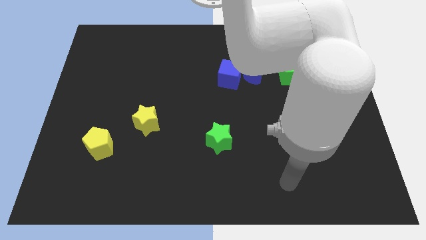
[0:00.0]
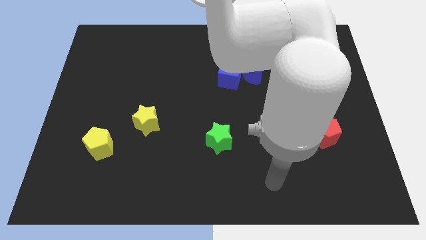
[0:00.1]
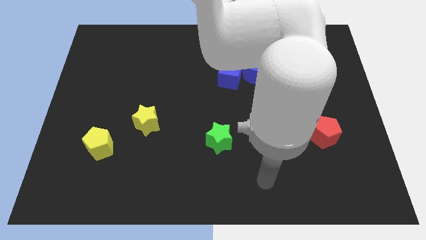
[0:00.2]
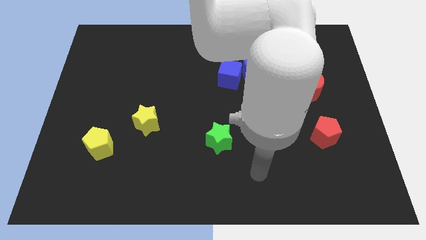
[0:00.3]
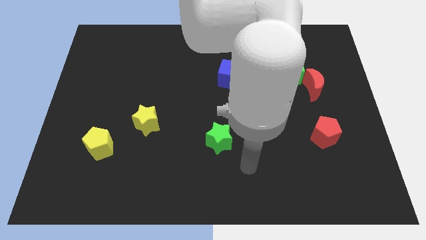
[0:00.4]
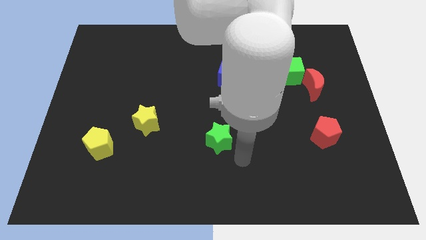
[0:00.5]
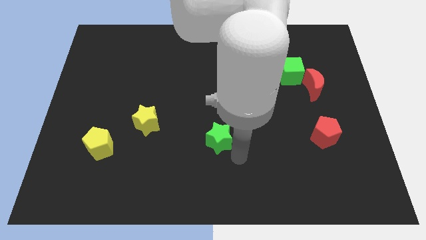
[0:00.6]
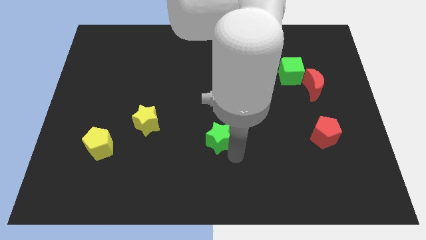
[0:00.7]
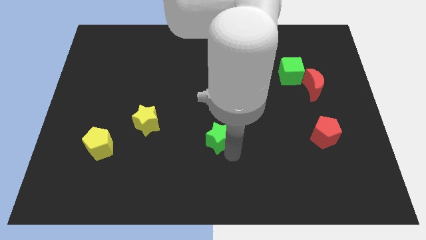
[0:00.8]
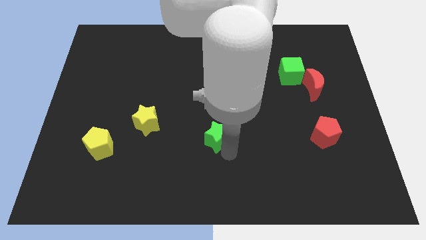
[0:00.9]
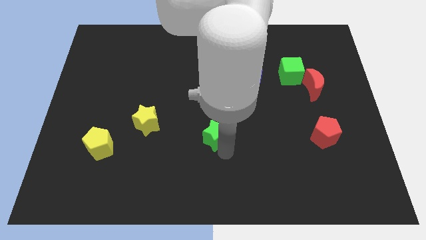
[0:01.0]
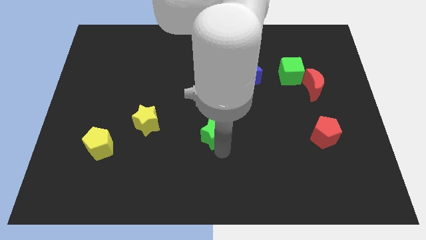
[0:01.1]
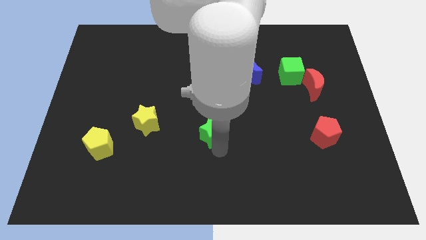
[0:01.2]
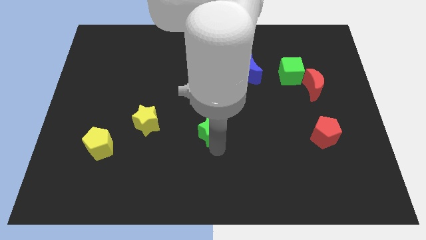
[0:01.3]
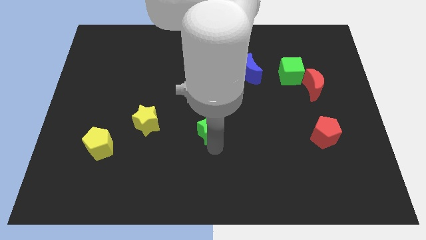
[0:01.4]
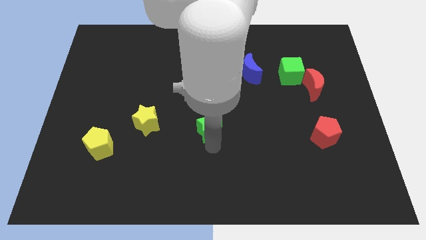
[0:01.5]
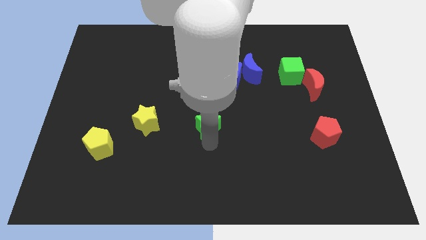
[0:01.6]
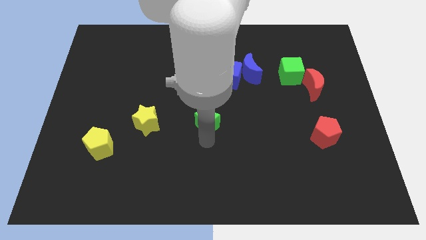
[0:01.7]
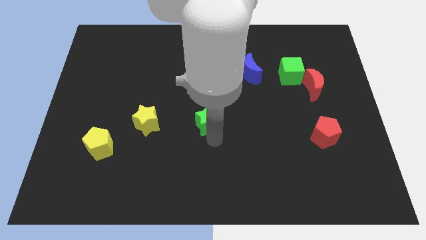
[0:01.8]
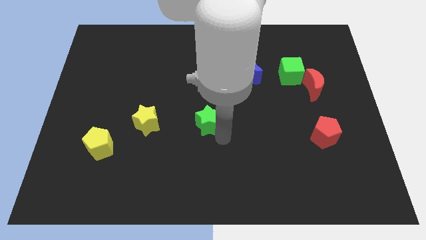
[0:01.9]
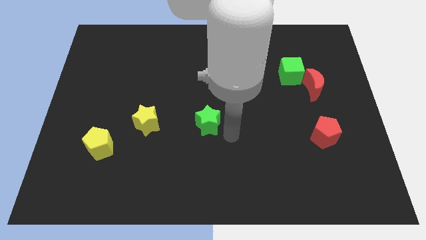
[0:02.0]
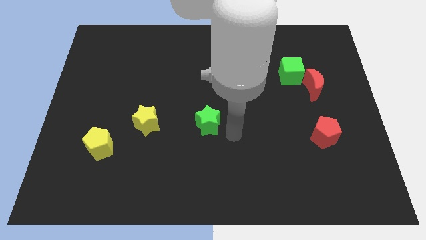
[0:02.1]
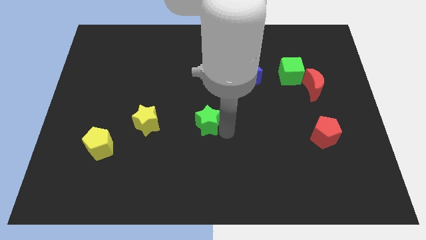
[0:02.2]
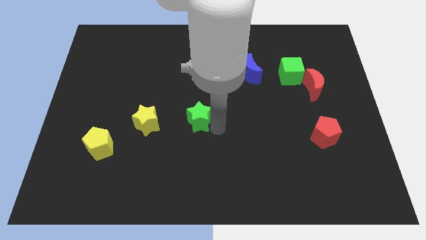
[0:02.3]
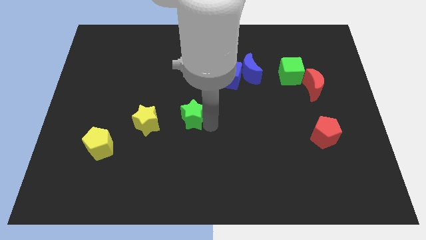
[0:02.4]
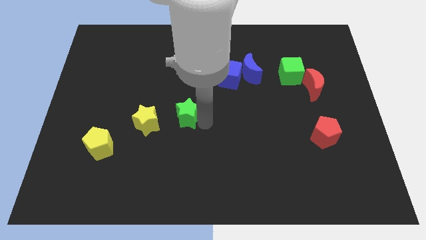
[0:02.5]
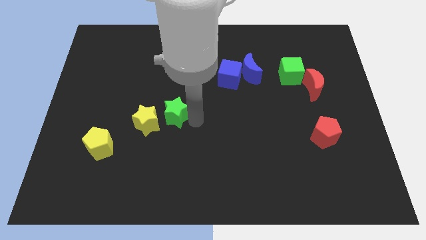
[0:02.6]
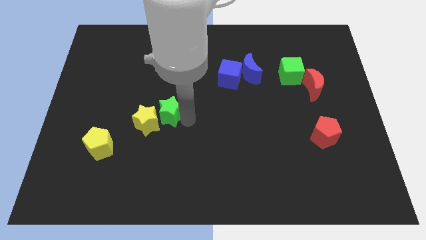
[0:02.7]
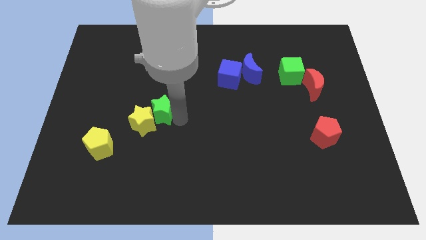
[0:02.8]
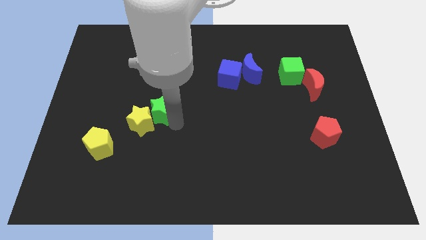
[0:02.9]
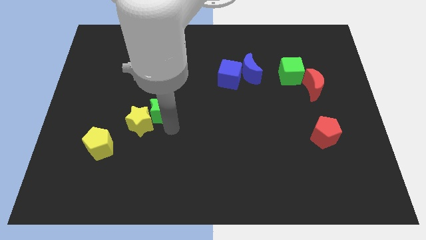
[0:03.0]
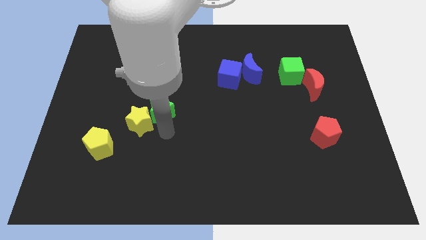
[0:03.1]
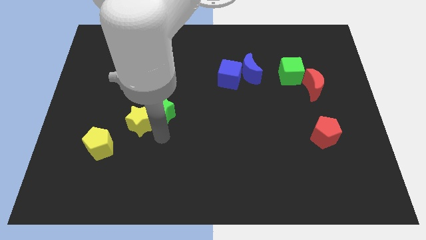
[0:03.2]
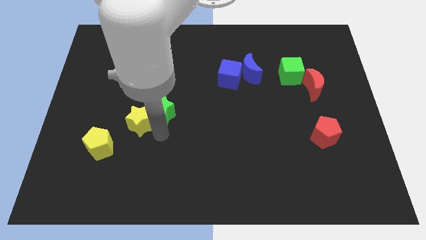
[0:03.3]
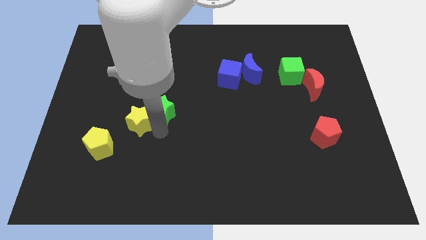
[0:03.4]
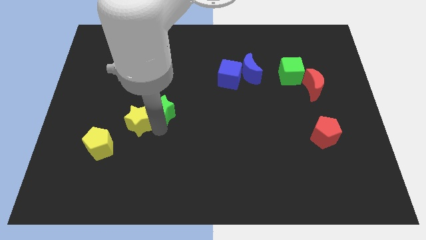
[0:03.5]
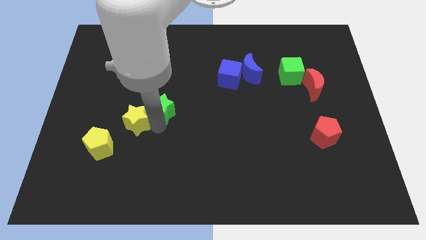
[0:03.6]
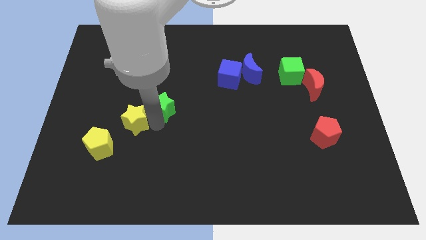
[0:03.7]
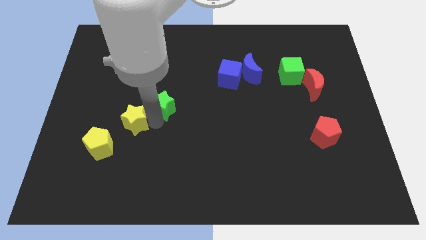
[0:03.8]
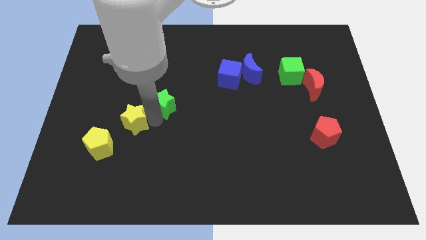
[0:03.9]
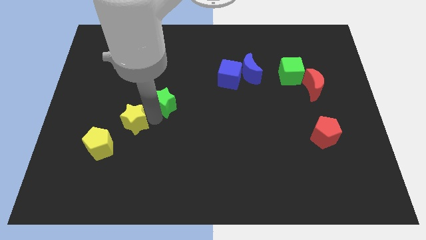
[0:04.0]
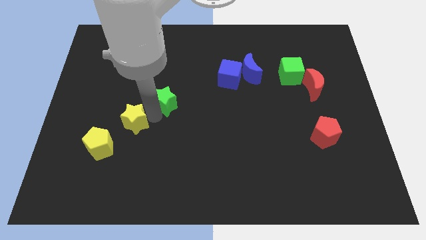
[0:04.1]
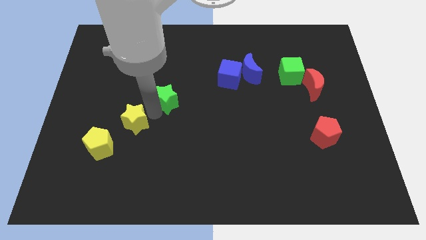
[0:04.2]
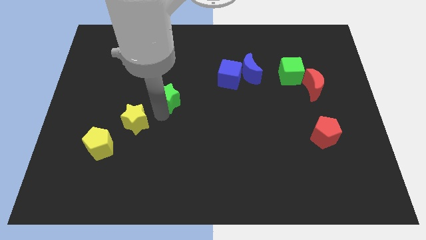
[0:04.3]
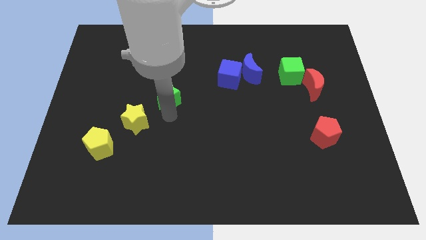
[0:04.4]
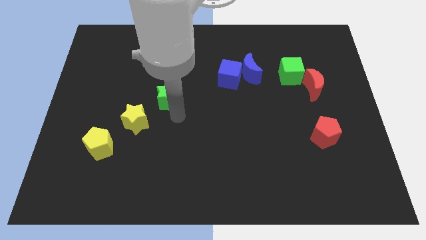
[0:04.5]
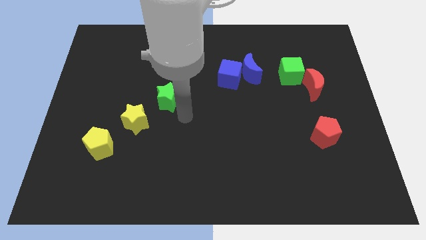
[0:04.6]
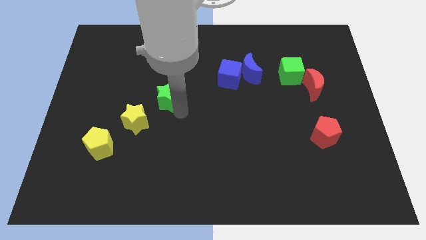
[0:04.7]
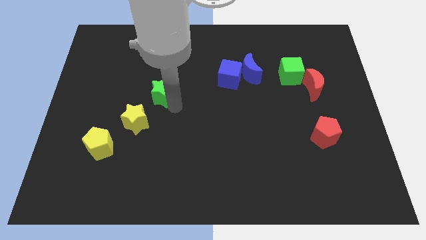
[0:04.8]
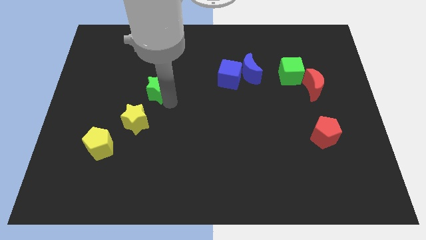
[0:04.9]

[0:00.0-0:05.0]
move the green star up and to the left

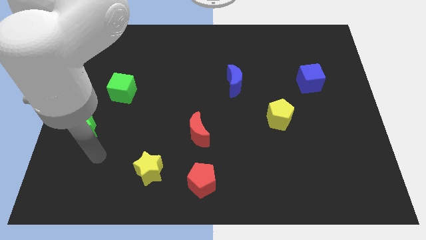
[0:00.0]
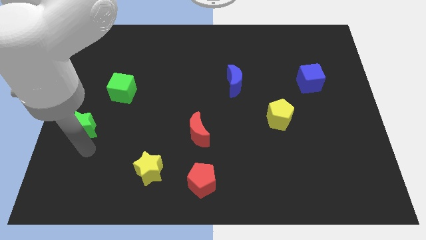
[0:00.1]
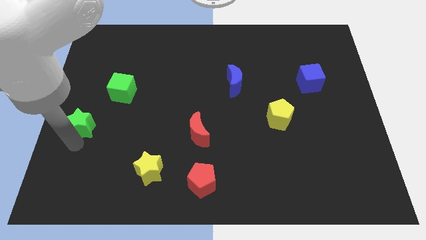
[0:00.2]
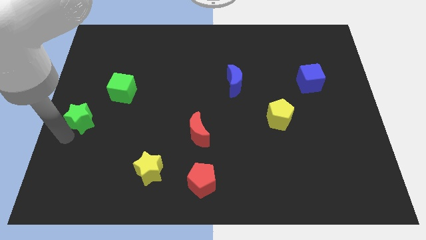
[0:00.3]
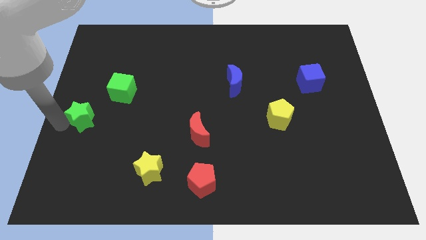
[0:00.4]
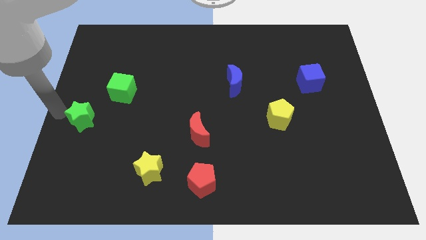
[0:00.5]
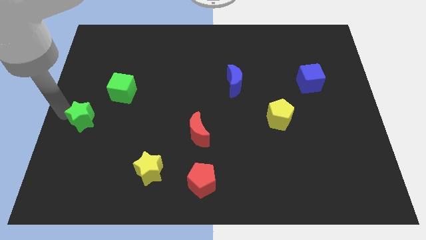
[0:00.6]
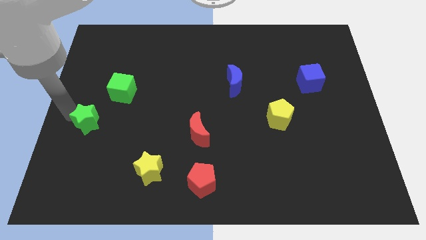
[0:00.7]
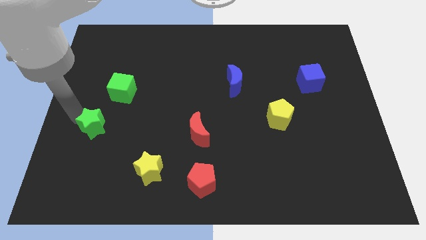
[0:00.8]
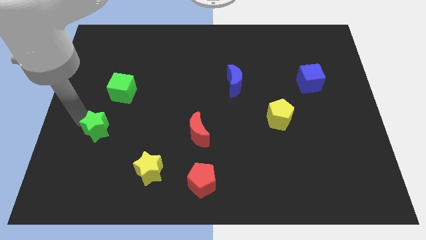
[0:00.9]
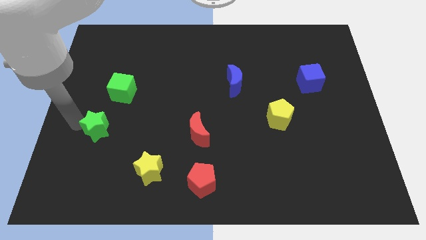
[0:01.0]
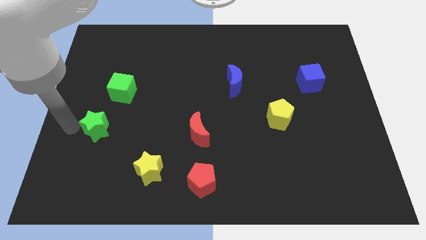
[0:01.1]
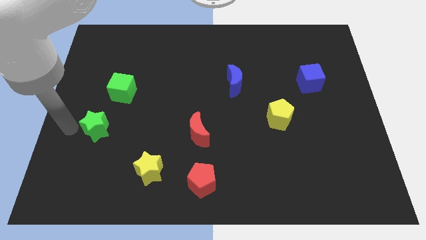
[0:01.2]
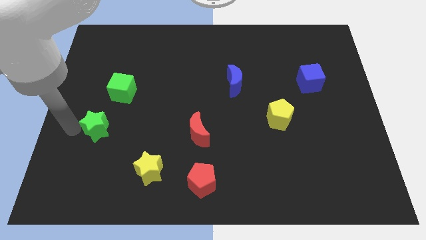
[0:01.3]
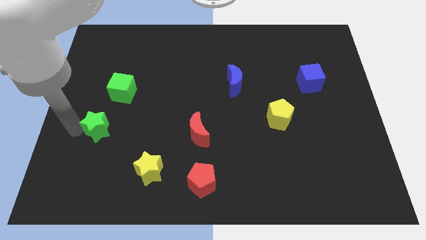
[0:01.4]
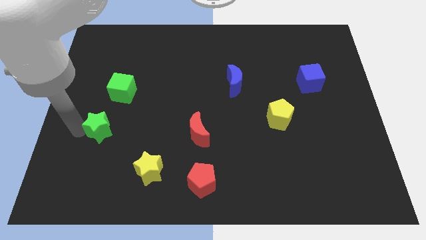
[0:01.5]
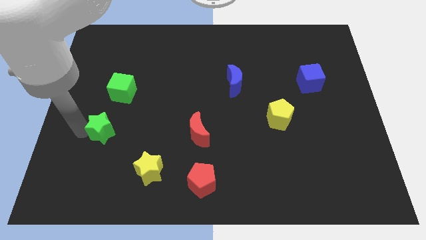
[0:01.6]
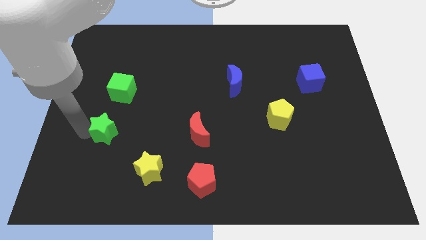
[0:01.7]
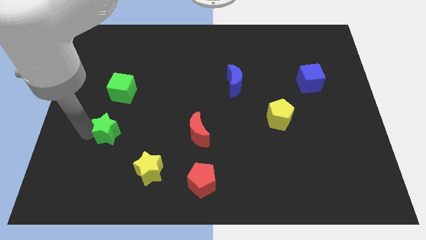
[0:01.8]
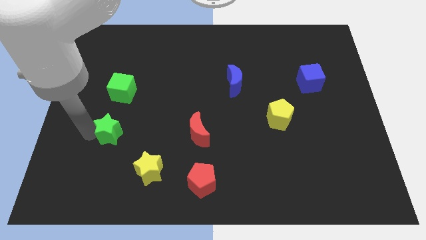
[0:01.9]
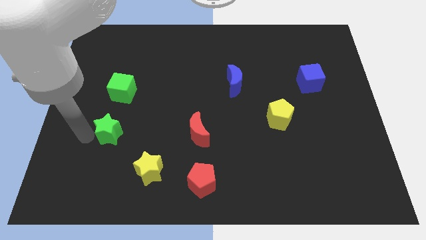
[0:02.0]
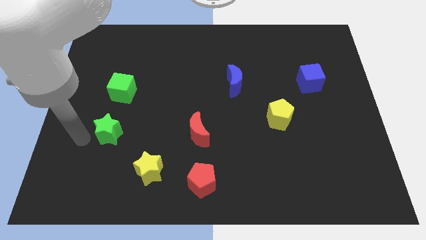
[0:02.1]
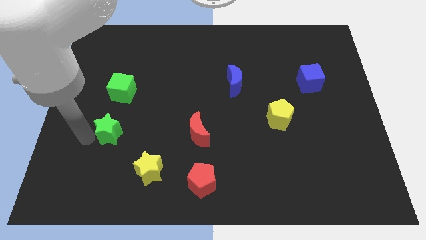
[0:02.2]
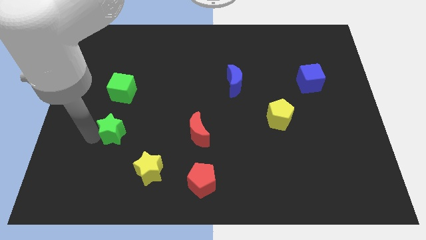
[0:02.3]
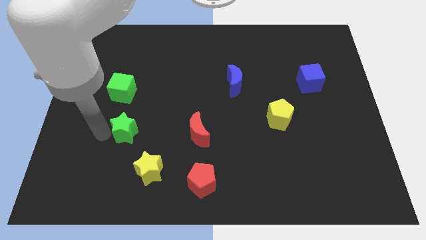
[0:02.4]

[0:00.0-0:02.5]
move the green star to the right a bit

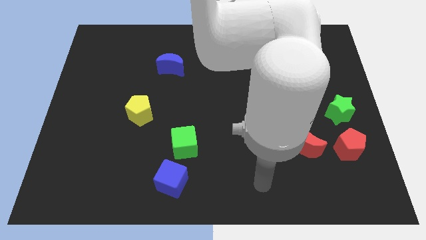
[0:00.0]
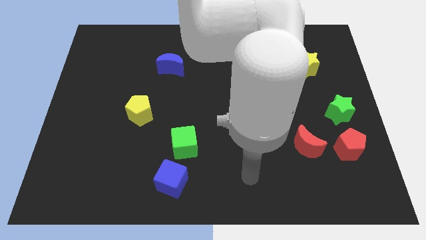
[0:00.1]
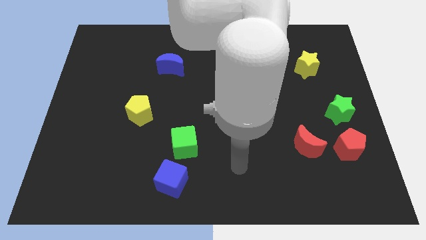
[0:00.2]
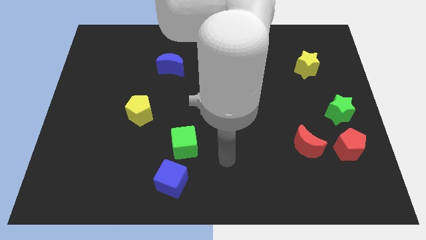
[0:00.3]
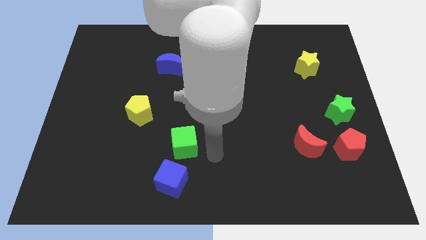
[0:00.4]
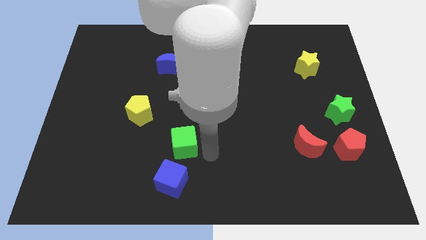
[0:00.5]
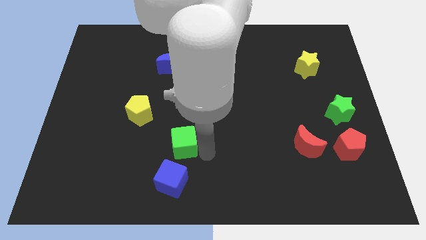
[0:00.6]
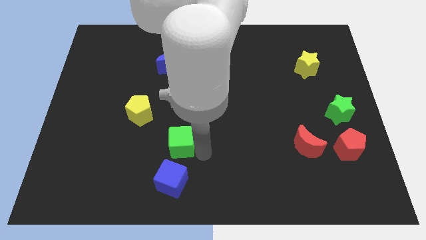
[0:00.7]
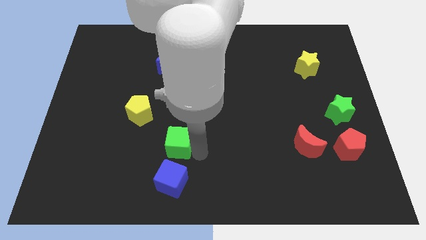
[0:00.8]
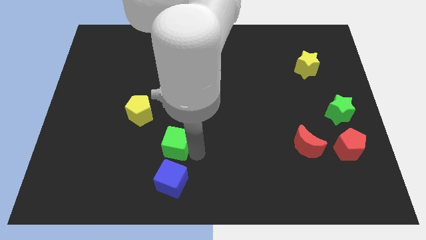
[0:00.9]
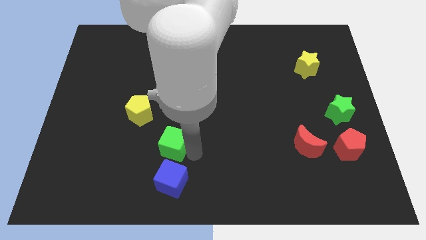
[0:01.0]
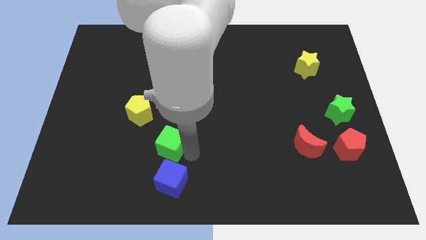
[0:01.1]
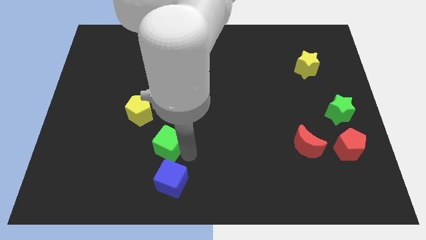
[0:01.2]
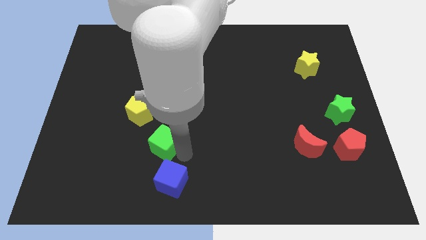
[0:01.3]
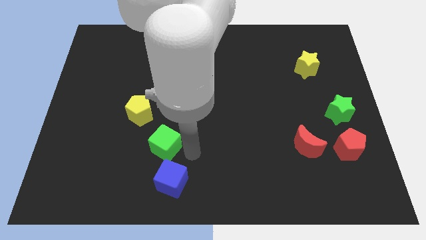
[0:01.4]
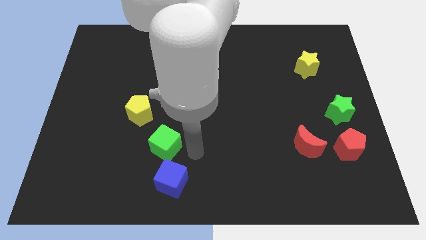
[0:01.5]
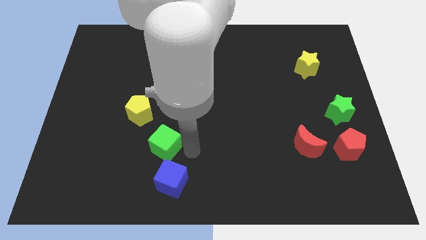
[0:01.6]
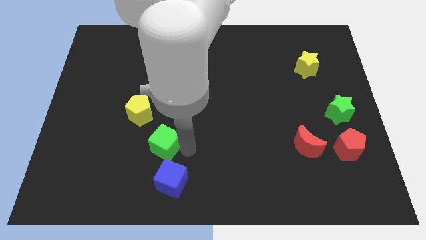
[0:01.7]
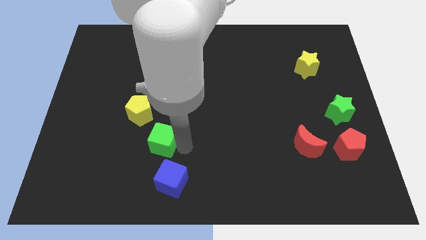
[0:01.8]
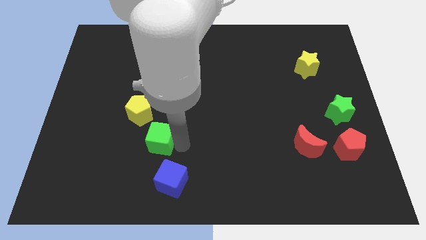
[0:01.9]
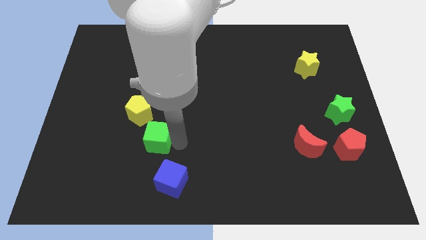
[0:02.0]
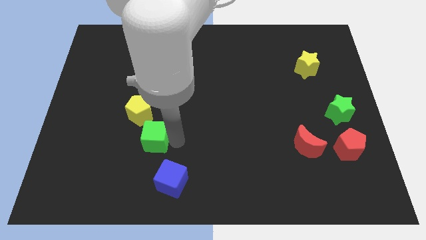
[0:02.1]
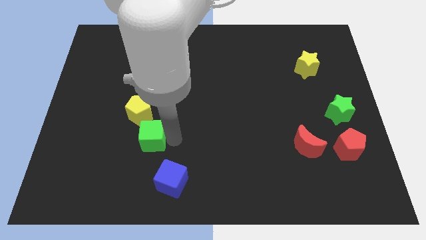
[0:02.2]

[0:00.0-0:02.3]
slide the green cube a bit left
